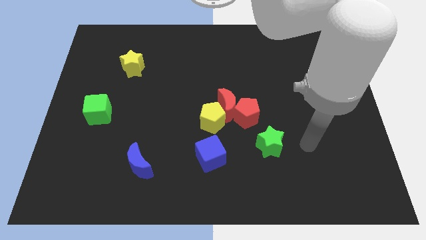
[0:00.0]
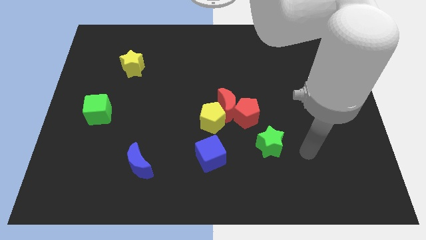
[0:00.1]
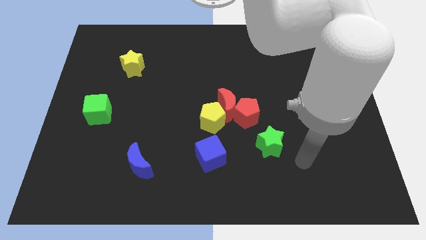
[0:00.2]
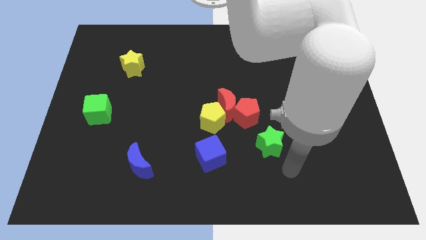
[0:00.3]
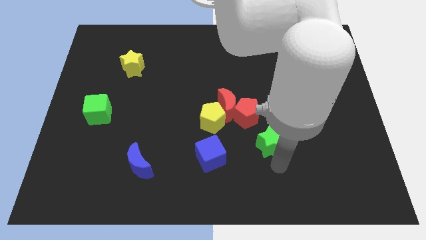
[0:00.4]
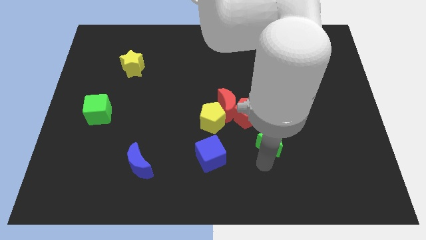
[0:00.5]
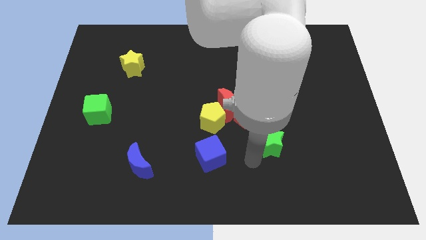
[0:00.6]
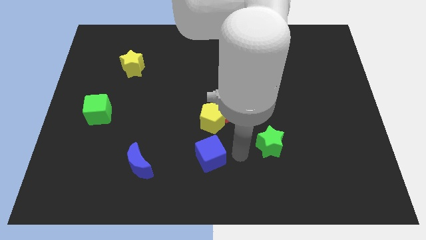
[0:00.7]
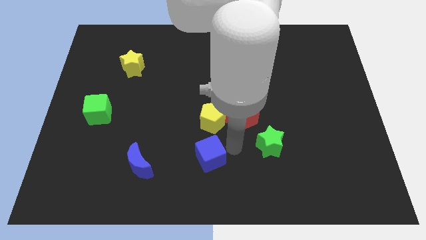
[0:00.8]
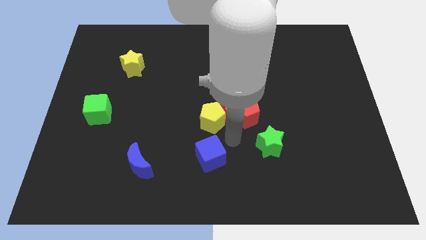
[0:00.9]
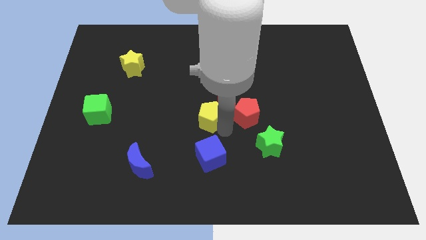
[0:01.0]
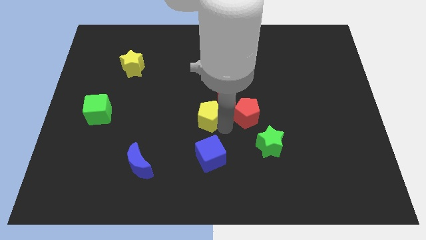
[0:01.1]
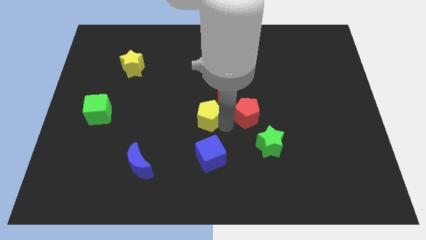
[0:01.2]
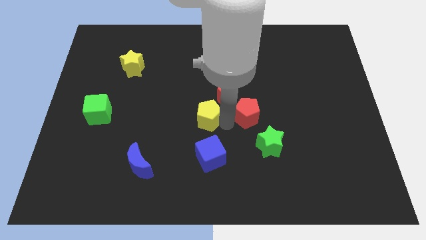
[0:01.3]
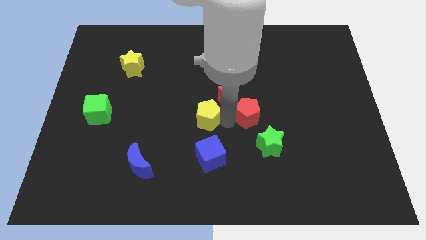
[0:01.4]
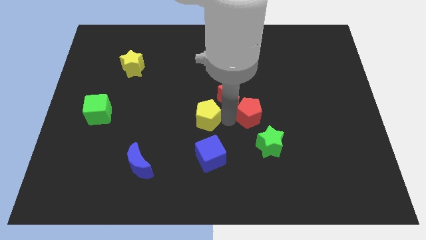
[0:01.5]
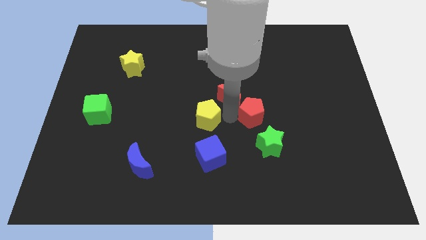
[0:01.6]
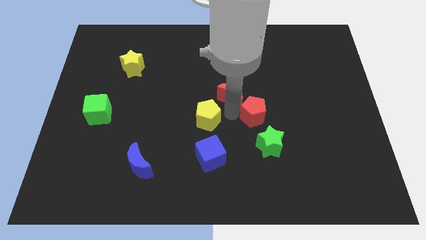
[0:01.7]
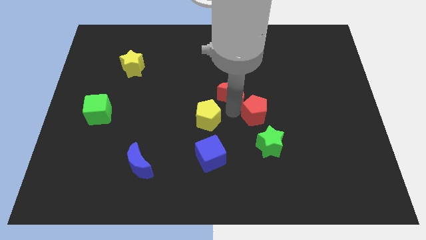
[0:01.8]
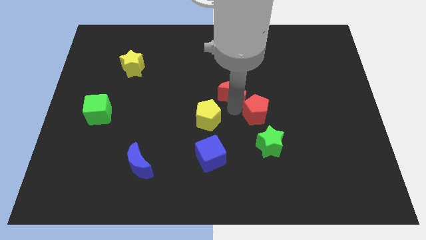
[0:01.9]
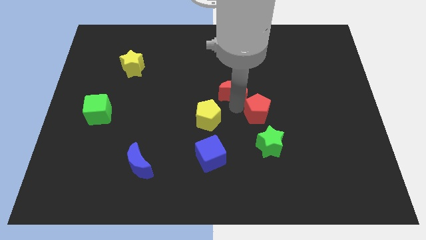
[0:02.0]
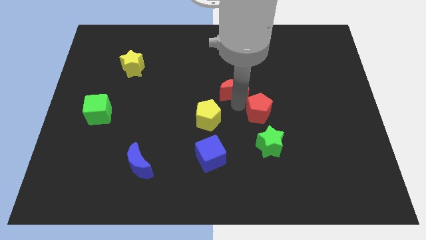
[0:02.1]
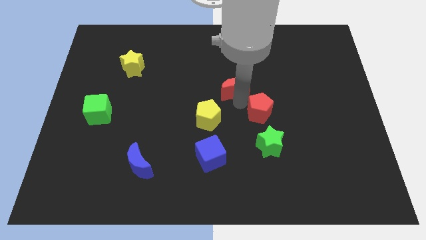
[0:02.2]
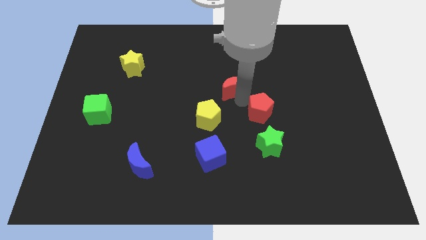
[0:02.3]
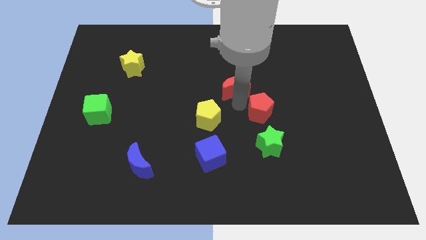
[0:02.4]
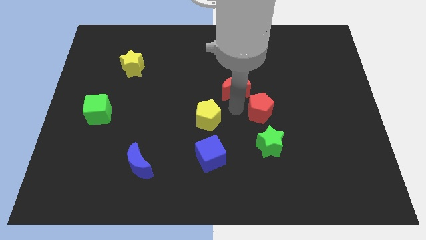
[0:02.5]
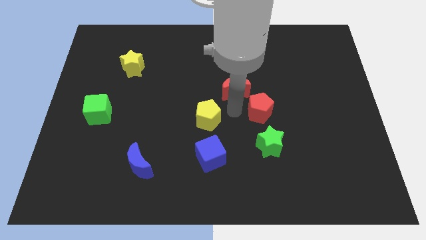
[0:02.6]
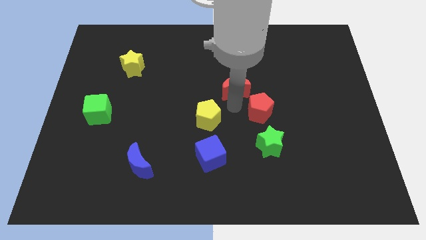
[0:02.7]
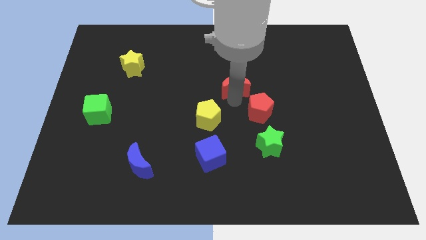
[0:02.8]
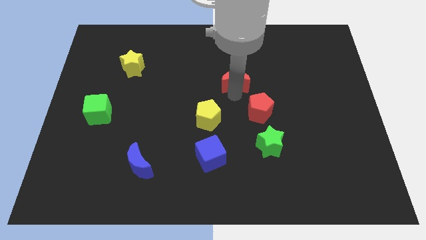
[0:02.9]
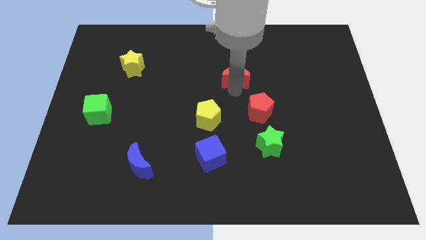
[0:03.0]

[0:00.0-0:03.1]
pull the red moon apart from the red pentagon and yellow pentagon

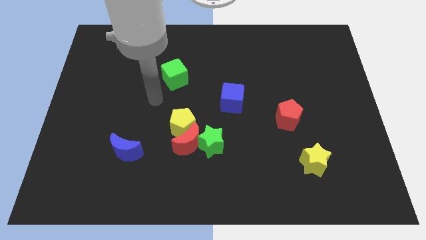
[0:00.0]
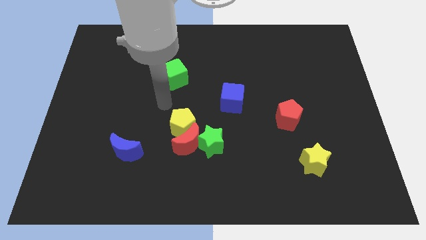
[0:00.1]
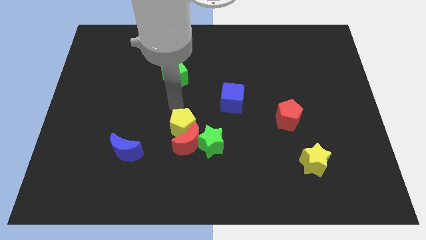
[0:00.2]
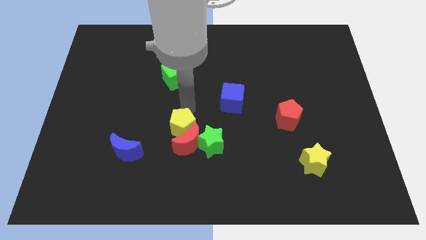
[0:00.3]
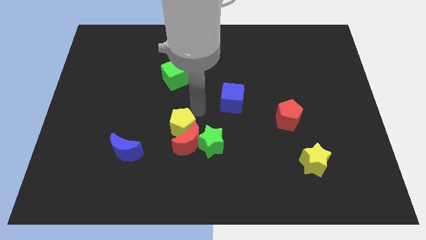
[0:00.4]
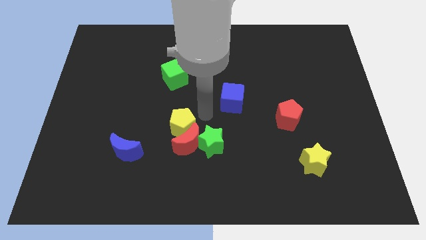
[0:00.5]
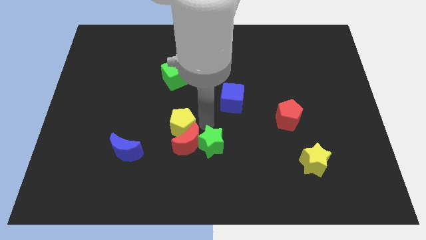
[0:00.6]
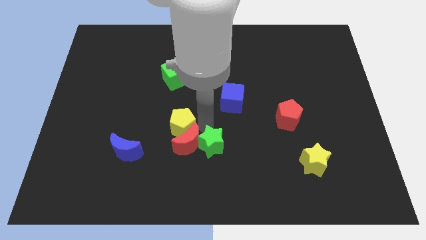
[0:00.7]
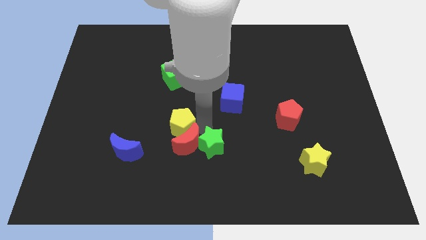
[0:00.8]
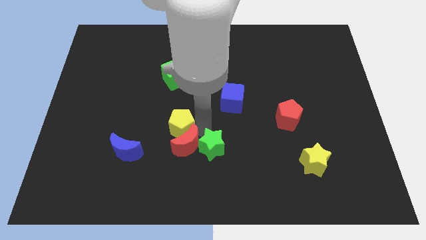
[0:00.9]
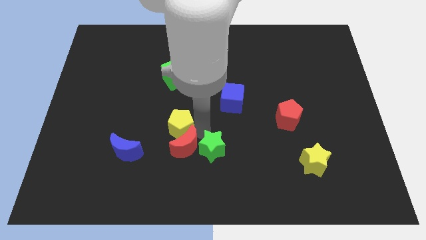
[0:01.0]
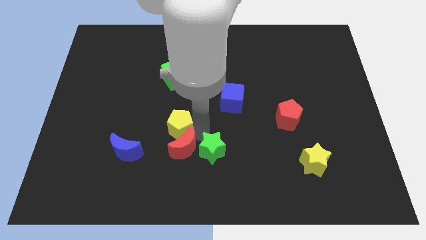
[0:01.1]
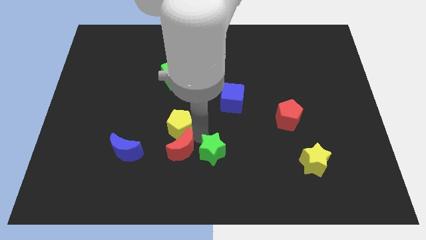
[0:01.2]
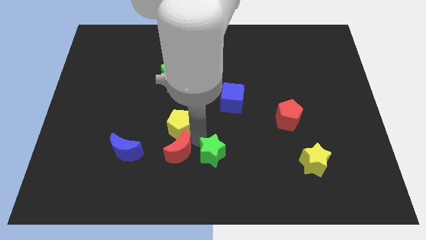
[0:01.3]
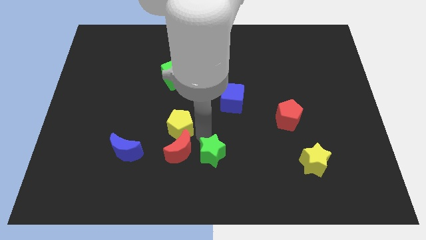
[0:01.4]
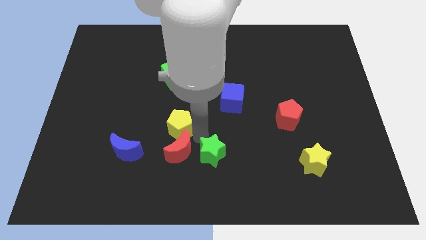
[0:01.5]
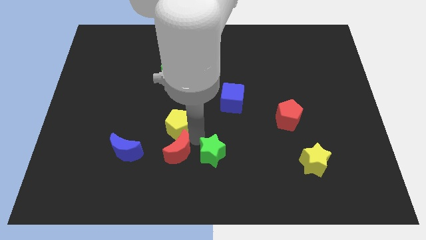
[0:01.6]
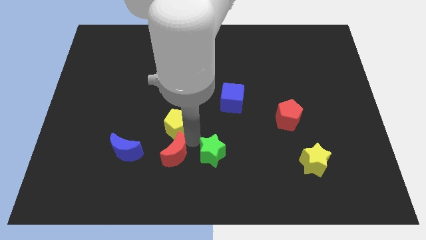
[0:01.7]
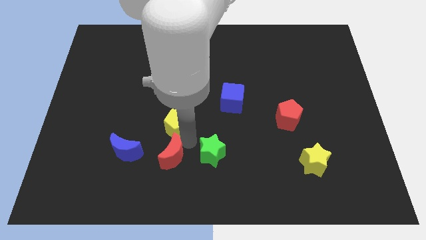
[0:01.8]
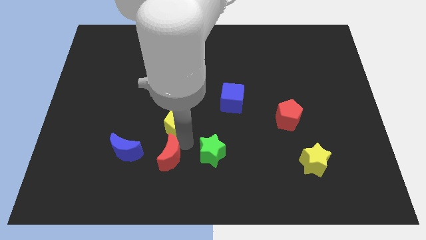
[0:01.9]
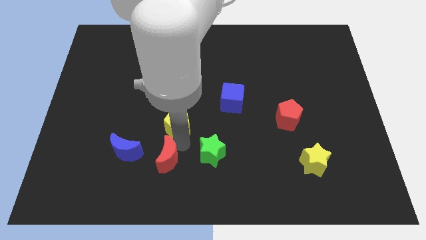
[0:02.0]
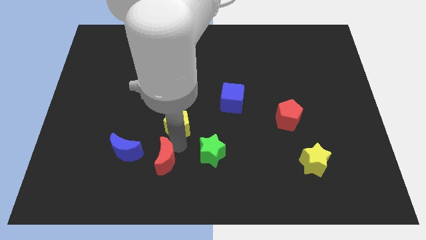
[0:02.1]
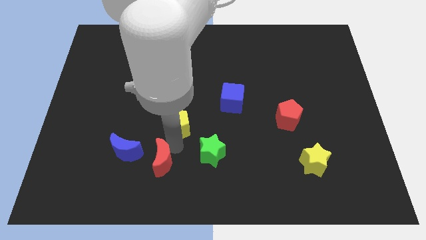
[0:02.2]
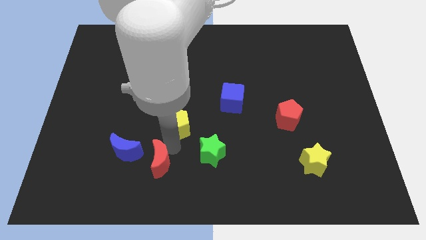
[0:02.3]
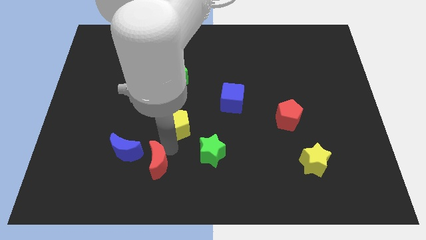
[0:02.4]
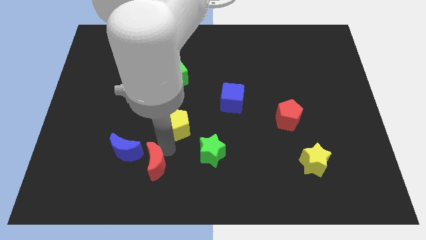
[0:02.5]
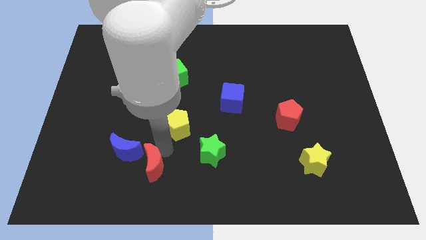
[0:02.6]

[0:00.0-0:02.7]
pull the red moon apart from the green star and yellow pentagon

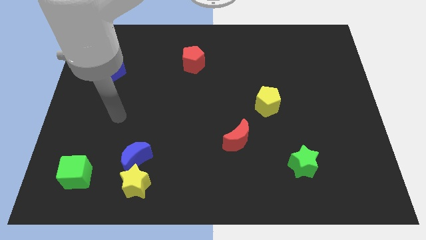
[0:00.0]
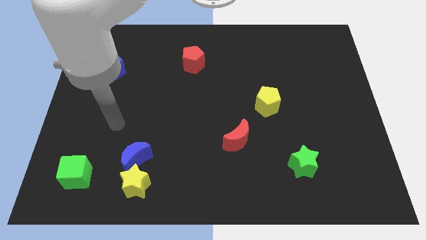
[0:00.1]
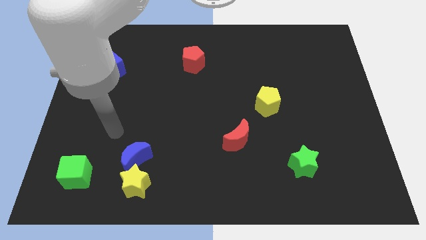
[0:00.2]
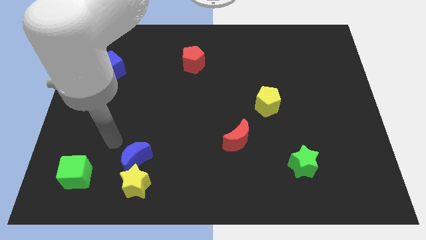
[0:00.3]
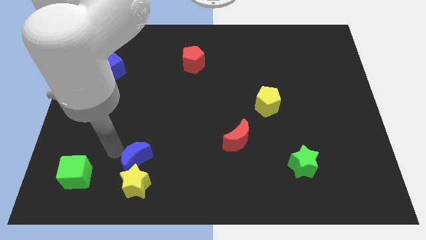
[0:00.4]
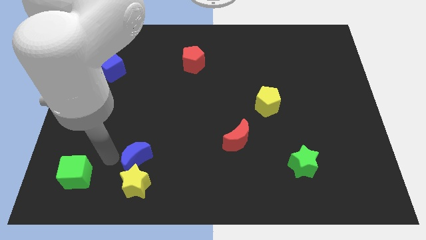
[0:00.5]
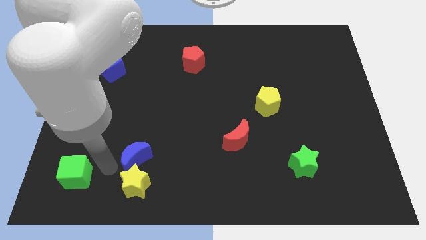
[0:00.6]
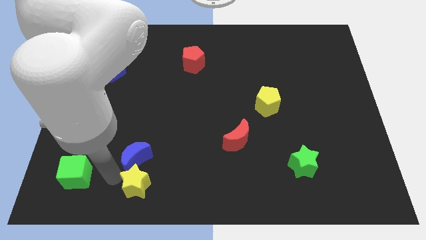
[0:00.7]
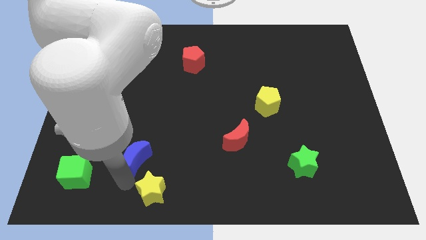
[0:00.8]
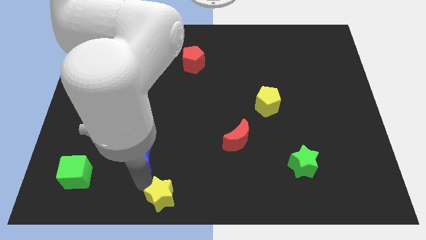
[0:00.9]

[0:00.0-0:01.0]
separate the blue moon from the yellow star

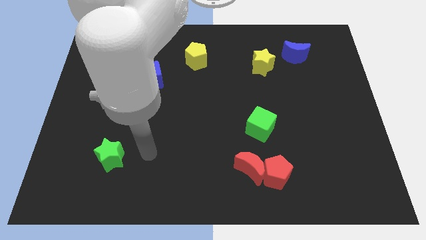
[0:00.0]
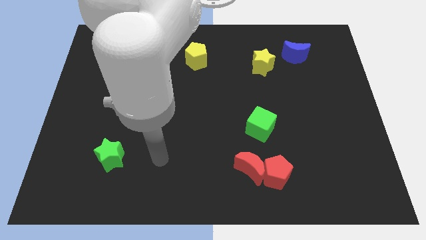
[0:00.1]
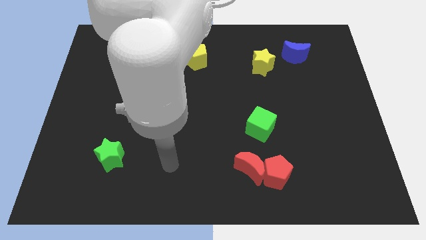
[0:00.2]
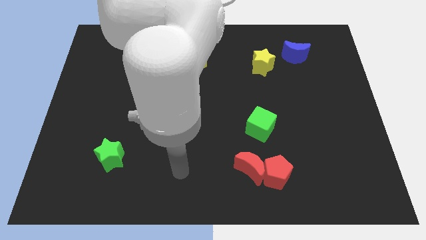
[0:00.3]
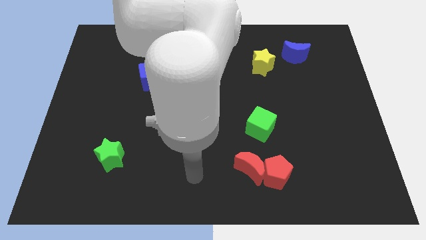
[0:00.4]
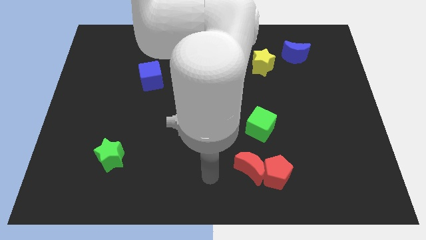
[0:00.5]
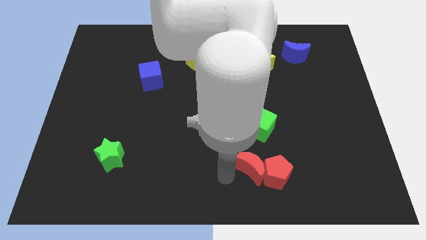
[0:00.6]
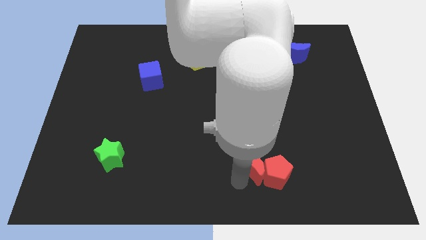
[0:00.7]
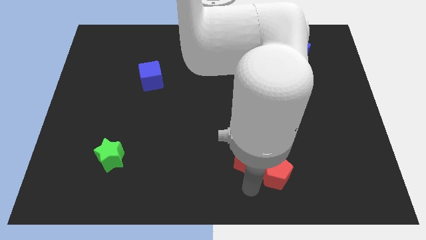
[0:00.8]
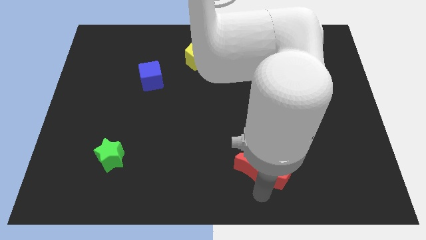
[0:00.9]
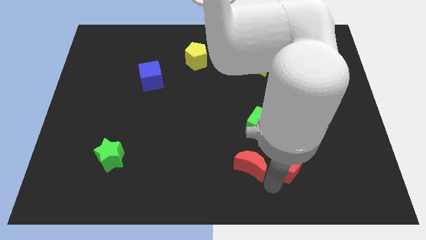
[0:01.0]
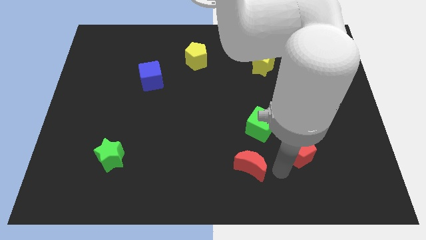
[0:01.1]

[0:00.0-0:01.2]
separate the red moon from the red pentagon

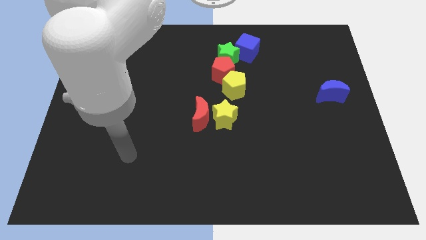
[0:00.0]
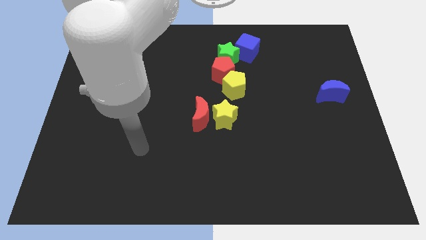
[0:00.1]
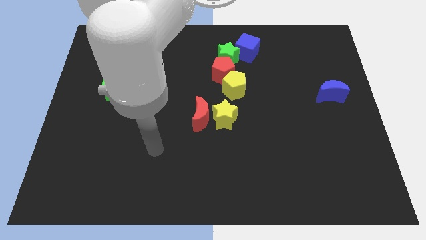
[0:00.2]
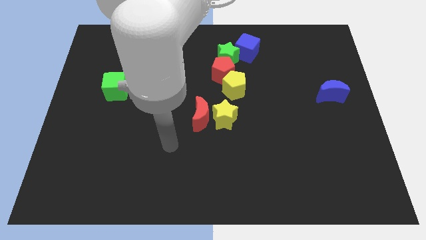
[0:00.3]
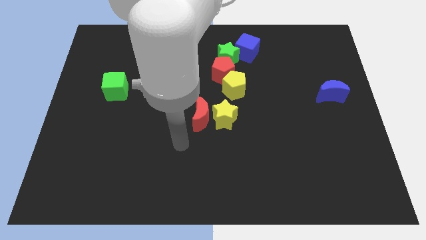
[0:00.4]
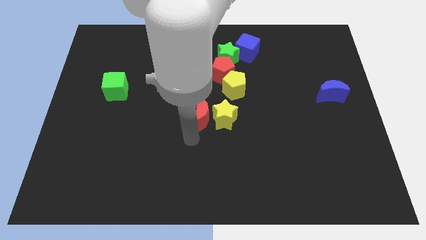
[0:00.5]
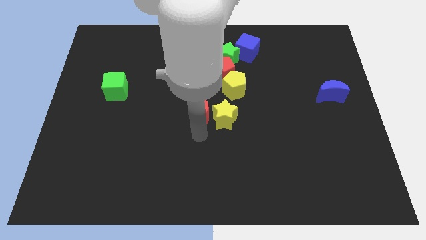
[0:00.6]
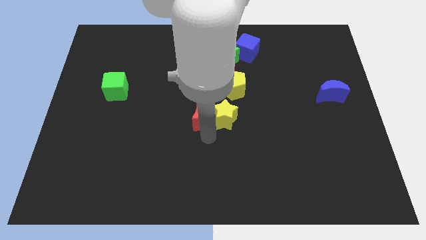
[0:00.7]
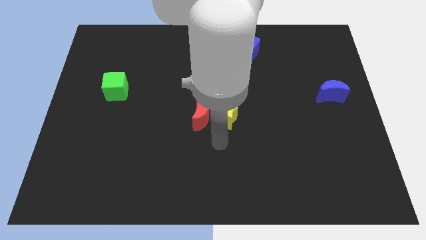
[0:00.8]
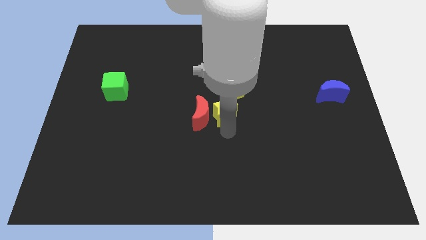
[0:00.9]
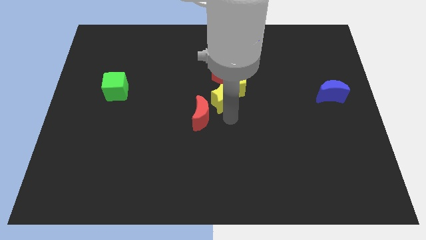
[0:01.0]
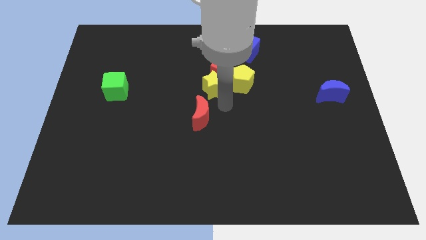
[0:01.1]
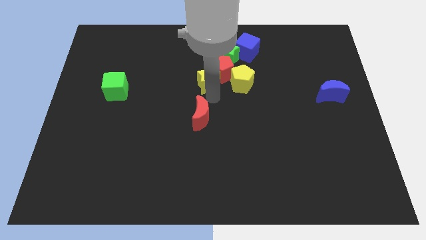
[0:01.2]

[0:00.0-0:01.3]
move the red moon away from the yellow star
